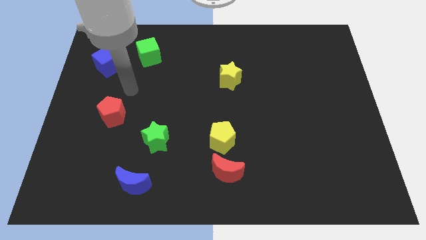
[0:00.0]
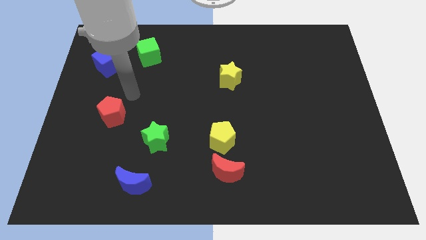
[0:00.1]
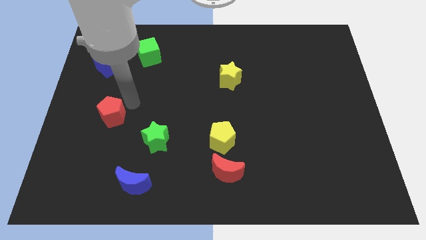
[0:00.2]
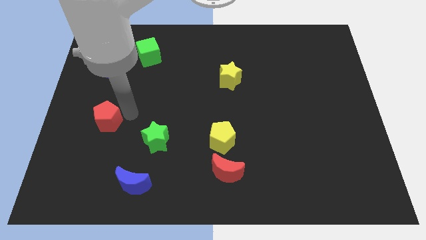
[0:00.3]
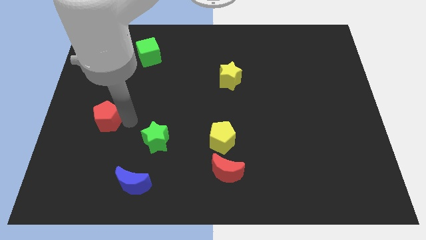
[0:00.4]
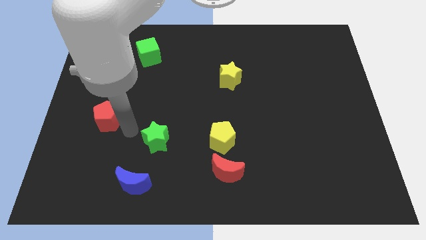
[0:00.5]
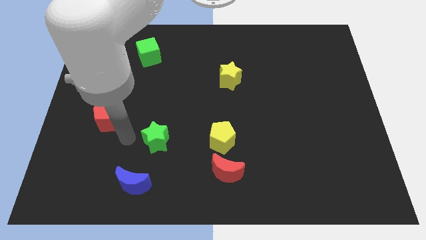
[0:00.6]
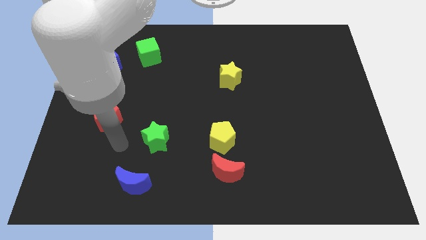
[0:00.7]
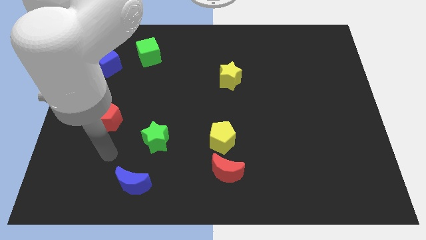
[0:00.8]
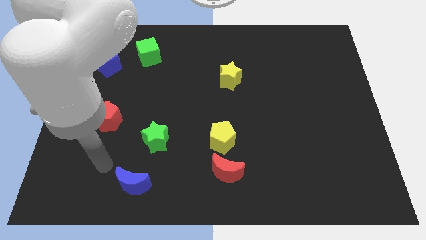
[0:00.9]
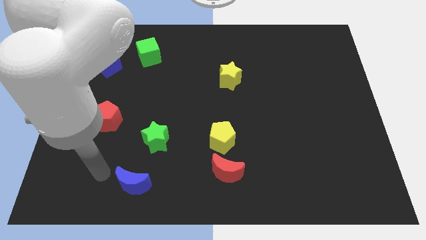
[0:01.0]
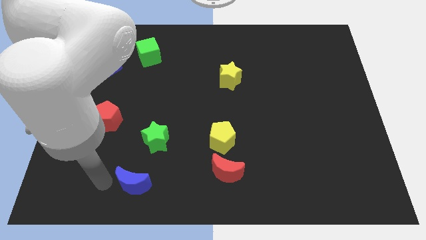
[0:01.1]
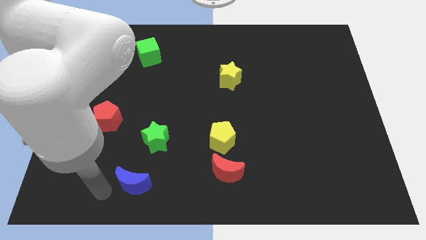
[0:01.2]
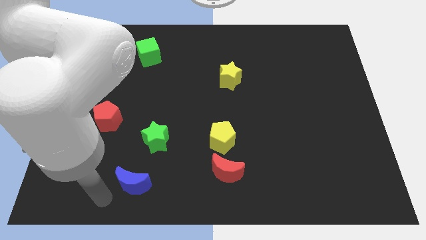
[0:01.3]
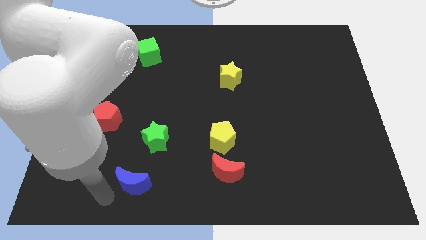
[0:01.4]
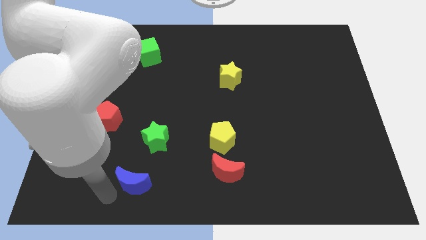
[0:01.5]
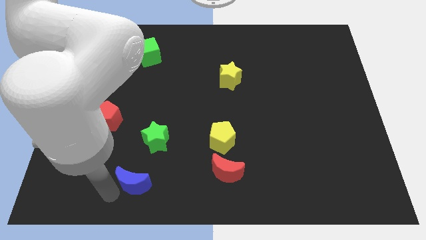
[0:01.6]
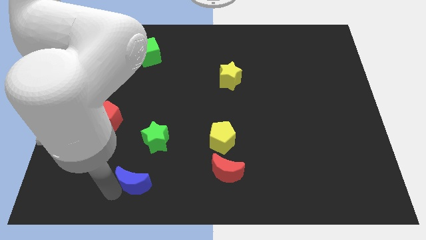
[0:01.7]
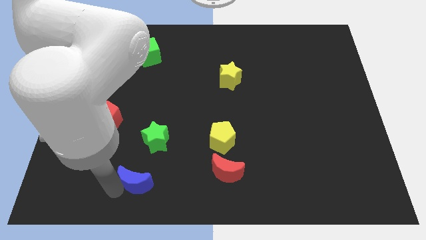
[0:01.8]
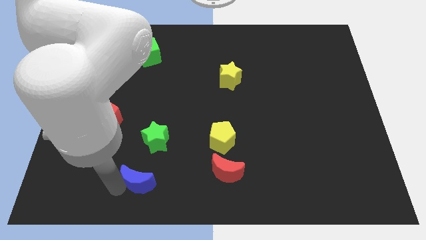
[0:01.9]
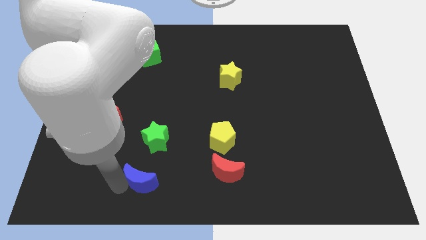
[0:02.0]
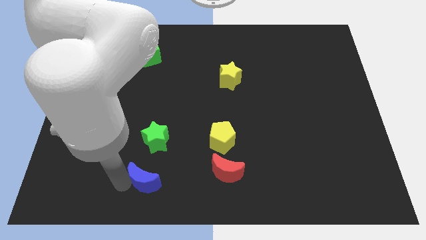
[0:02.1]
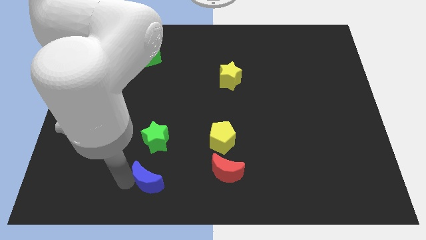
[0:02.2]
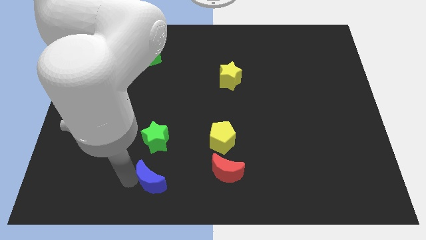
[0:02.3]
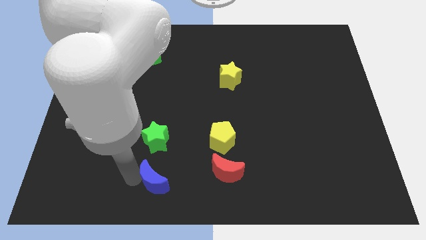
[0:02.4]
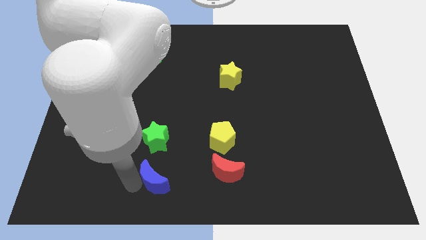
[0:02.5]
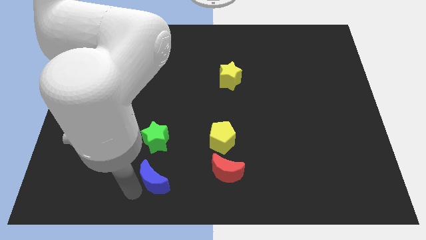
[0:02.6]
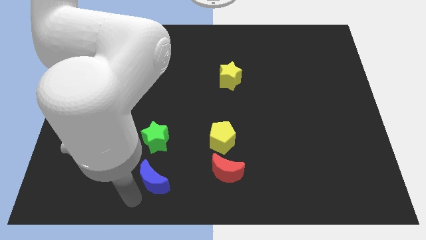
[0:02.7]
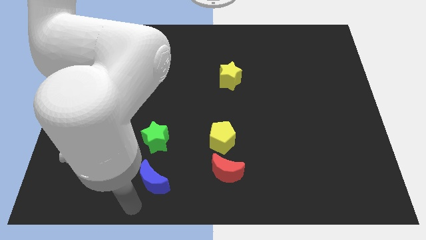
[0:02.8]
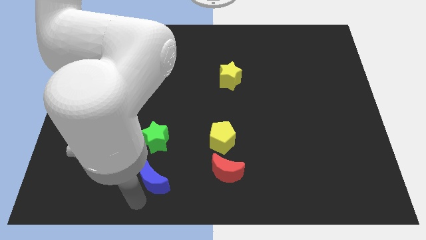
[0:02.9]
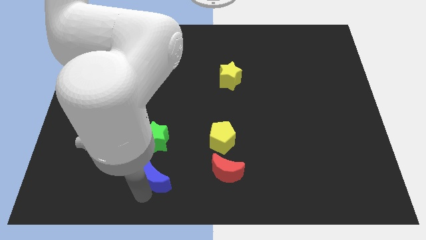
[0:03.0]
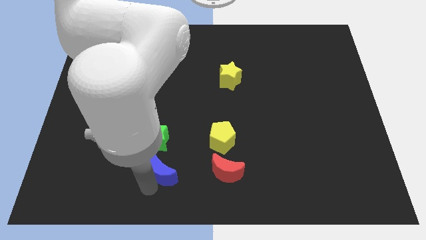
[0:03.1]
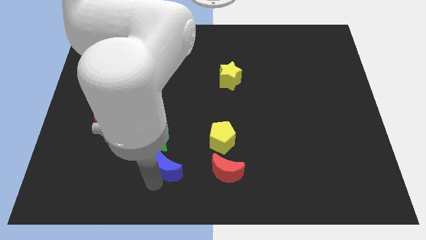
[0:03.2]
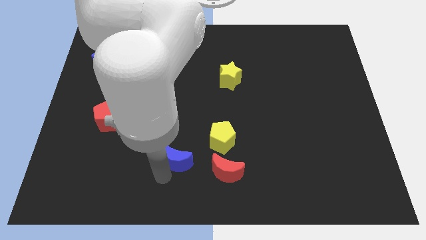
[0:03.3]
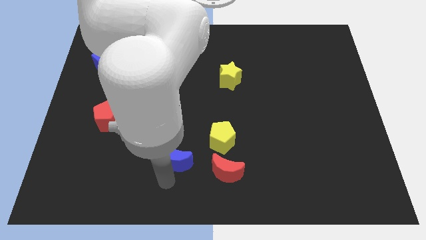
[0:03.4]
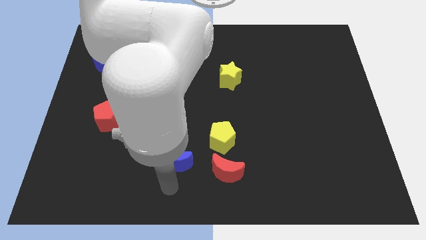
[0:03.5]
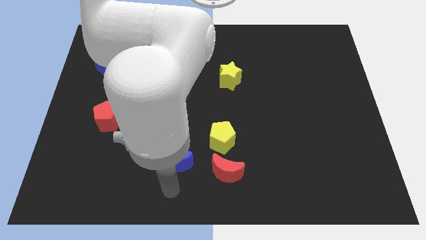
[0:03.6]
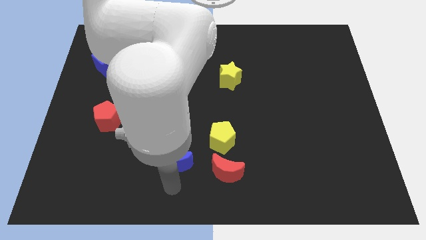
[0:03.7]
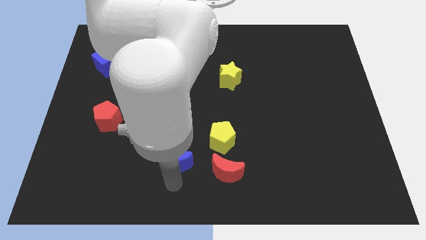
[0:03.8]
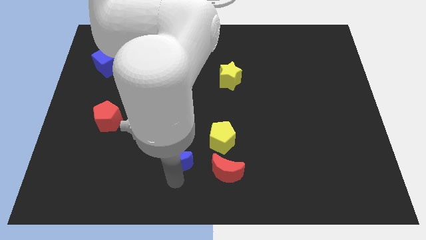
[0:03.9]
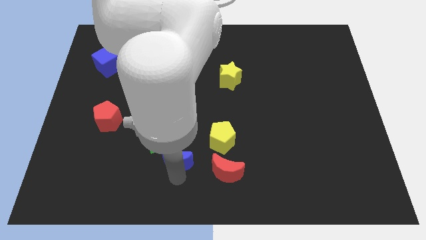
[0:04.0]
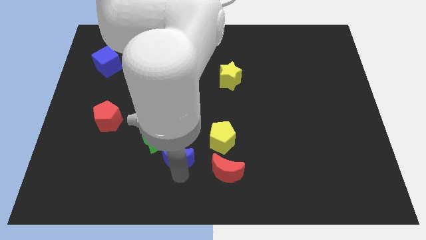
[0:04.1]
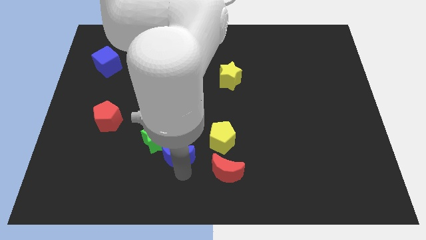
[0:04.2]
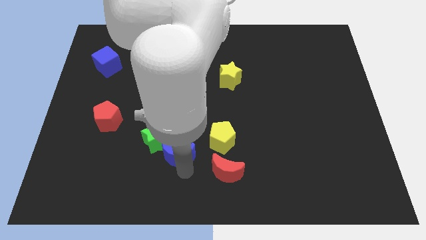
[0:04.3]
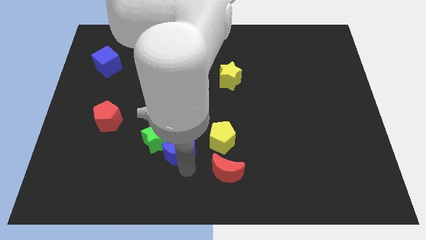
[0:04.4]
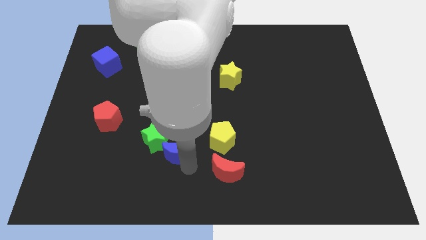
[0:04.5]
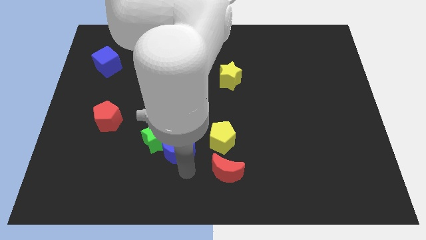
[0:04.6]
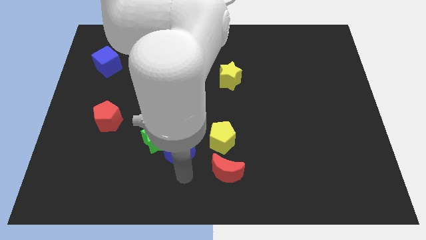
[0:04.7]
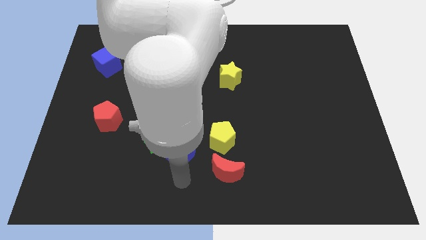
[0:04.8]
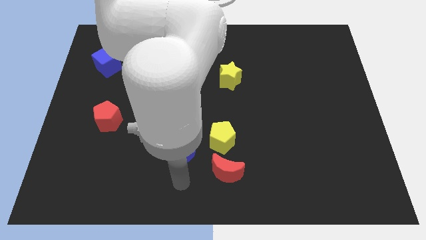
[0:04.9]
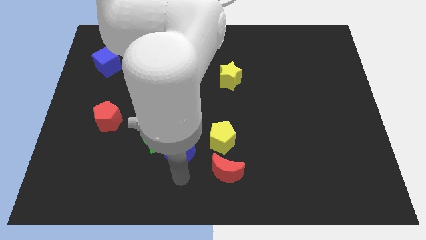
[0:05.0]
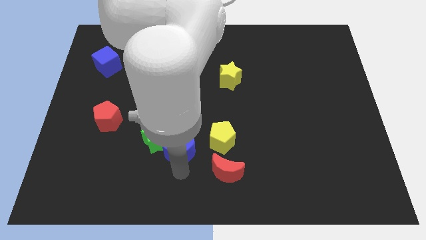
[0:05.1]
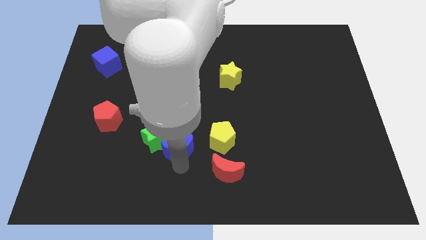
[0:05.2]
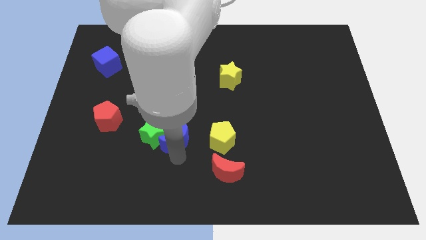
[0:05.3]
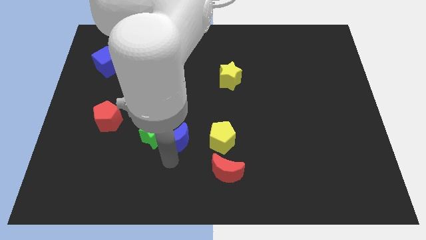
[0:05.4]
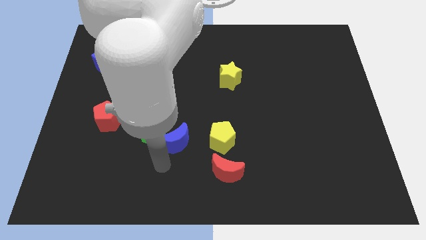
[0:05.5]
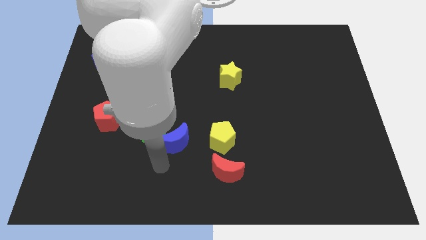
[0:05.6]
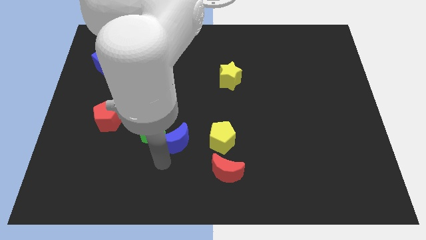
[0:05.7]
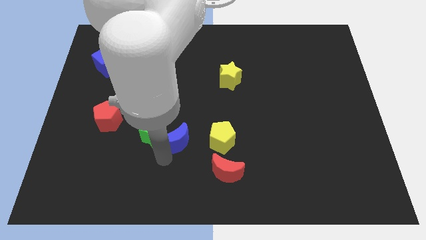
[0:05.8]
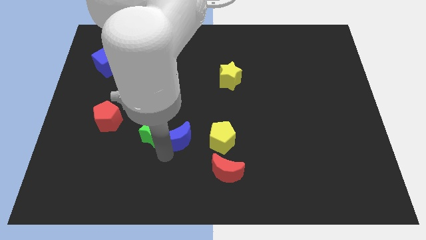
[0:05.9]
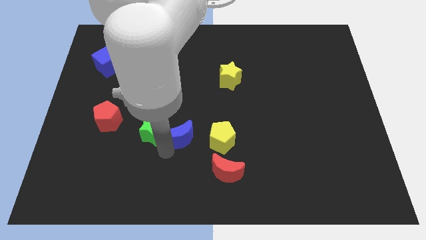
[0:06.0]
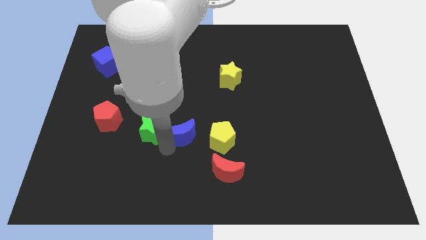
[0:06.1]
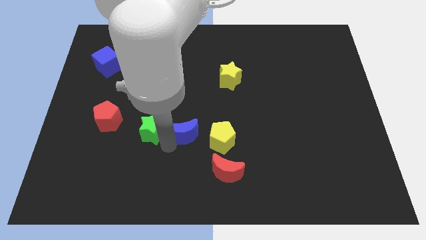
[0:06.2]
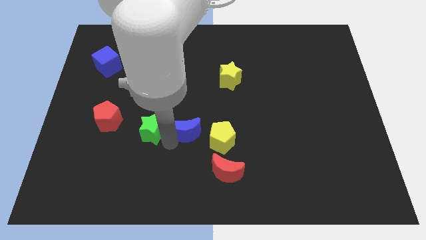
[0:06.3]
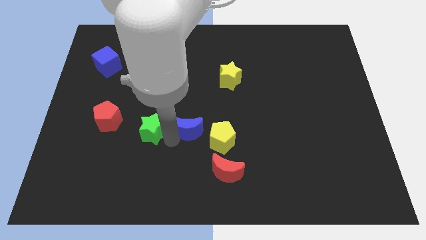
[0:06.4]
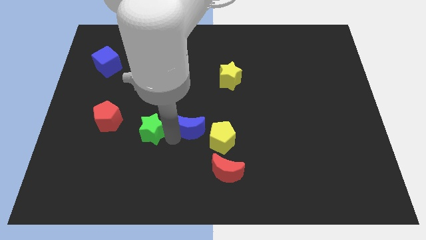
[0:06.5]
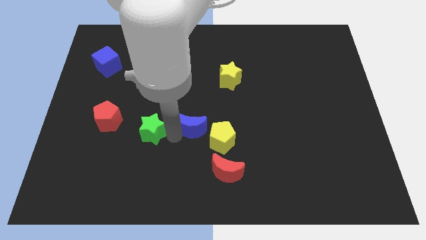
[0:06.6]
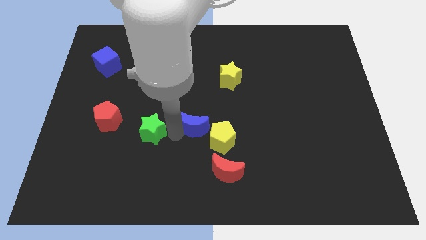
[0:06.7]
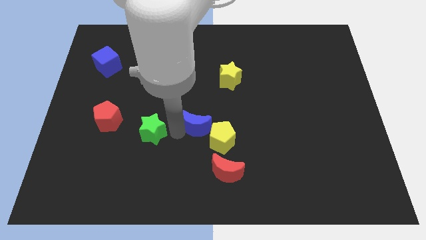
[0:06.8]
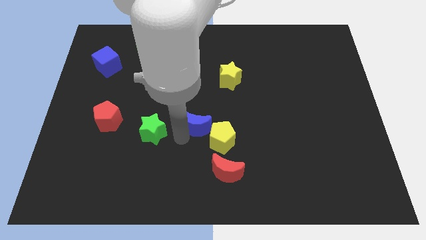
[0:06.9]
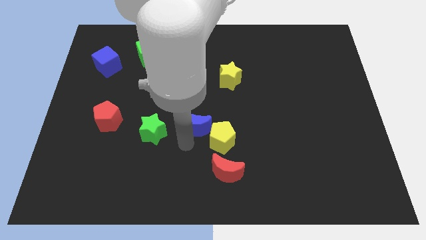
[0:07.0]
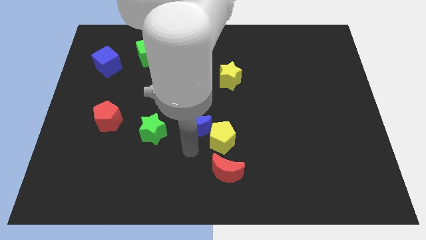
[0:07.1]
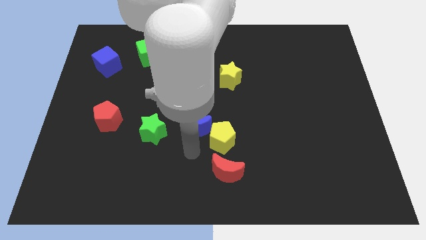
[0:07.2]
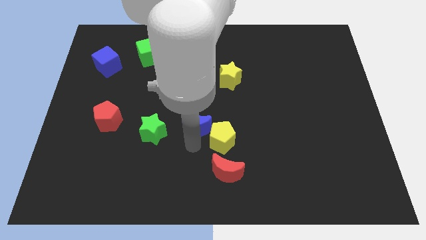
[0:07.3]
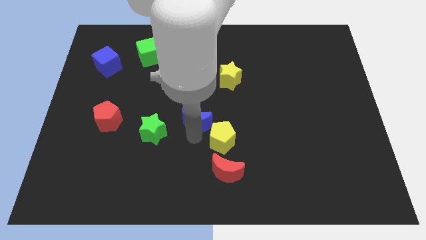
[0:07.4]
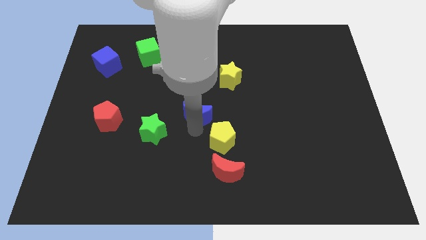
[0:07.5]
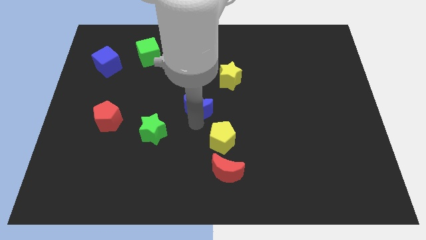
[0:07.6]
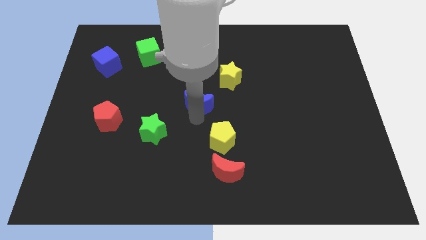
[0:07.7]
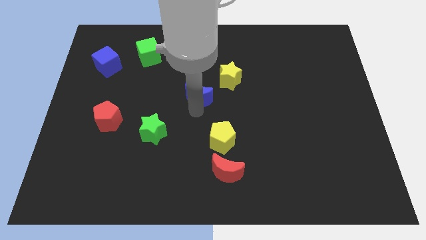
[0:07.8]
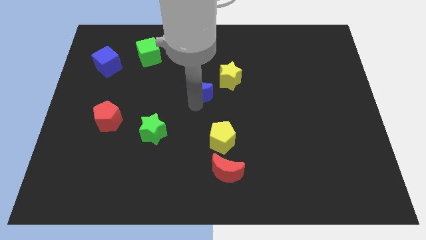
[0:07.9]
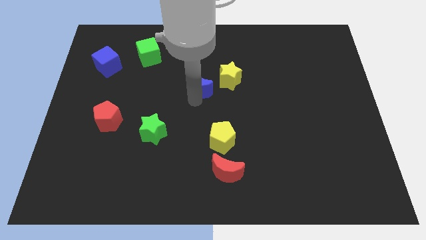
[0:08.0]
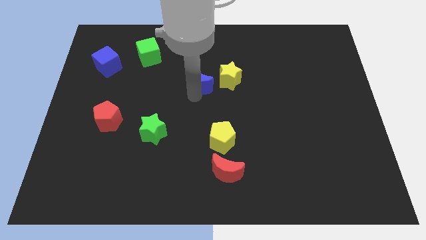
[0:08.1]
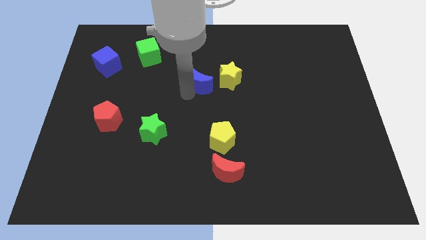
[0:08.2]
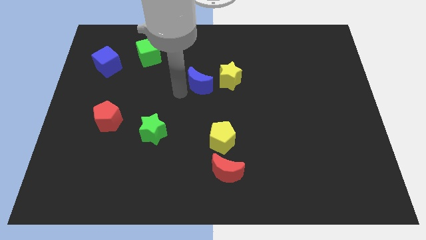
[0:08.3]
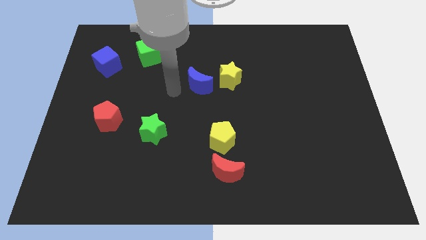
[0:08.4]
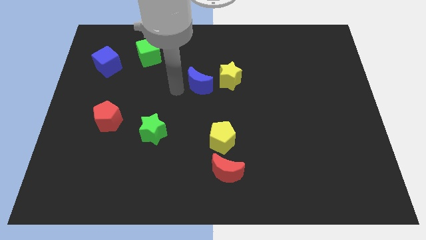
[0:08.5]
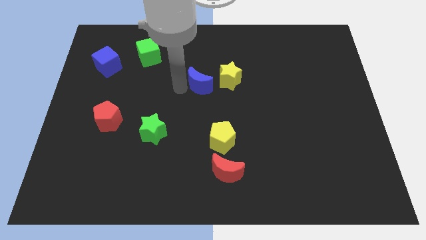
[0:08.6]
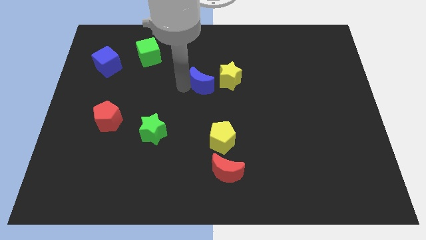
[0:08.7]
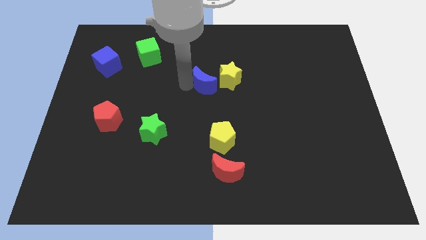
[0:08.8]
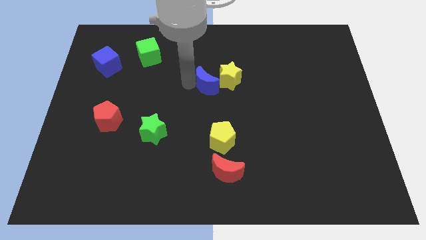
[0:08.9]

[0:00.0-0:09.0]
put the blue moon to the yellow star
